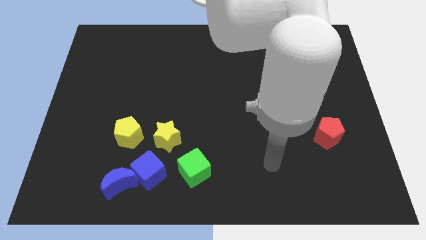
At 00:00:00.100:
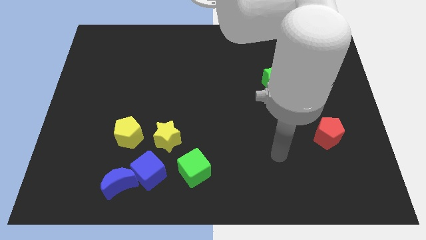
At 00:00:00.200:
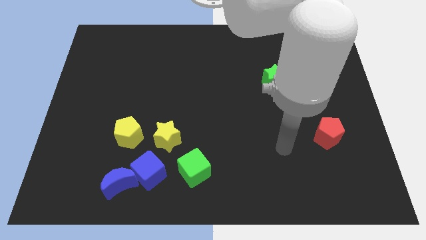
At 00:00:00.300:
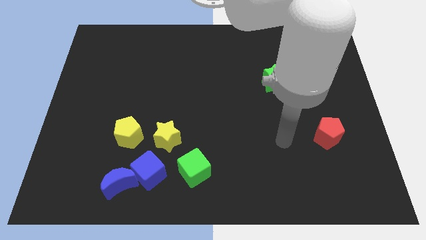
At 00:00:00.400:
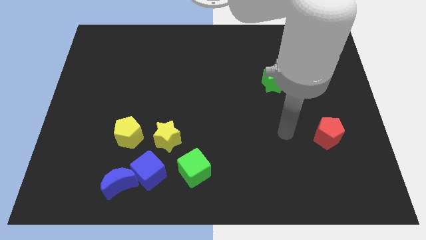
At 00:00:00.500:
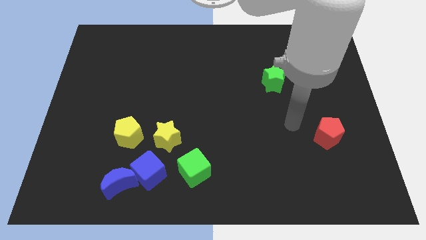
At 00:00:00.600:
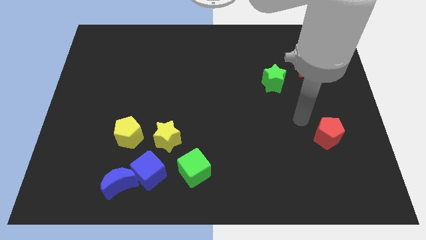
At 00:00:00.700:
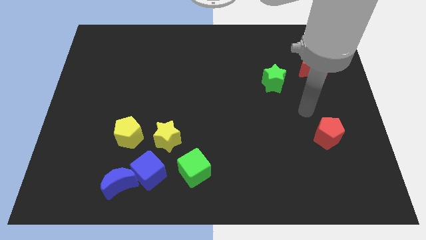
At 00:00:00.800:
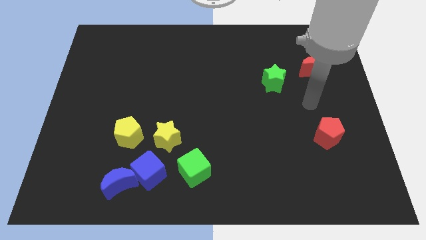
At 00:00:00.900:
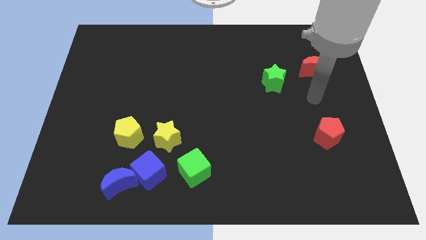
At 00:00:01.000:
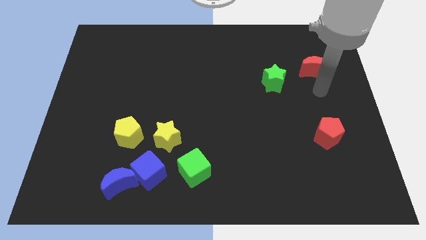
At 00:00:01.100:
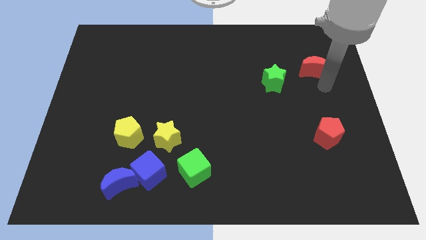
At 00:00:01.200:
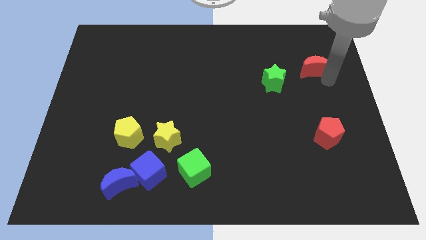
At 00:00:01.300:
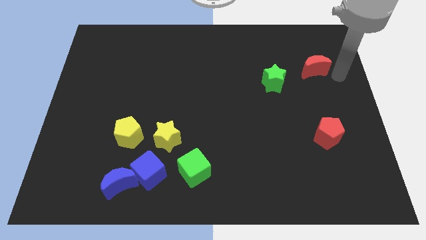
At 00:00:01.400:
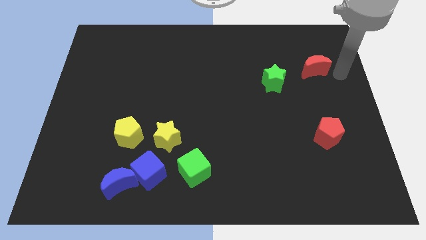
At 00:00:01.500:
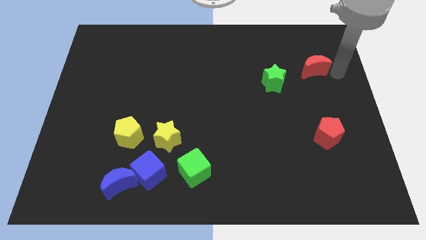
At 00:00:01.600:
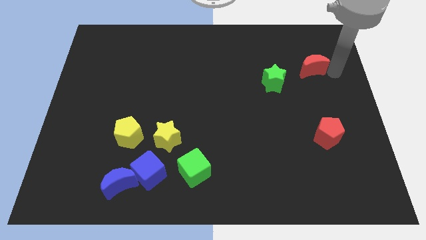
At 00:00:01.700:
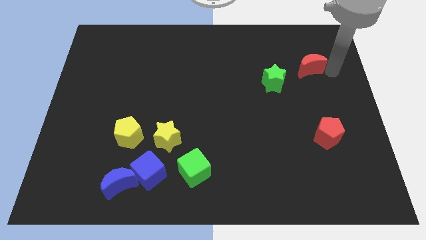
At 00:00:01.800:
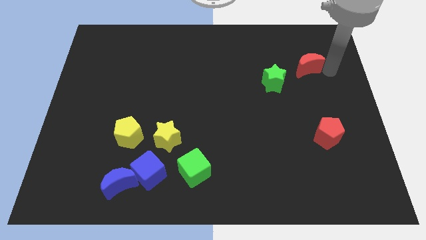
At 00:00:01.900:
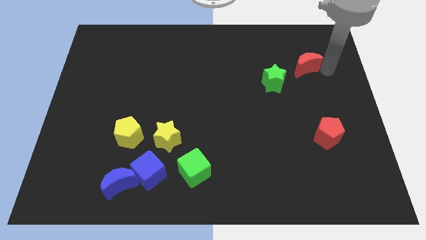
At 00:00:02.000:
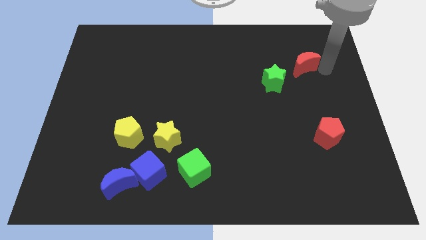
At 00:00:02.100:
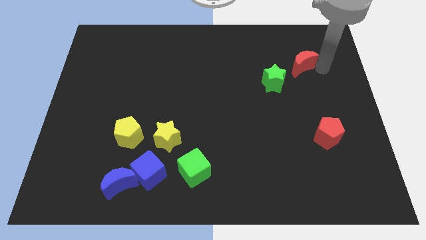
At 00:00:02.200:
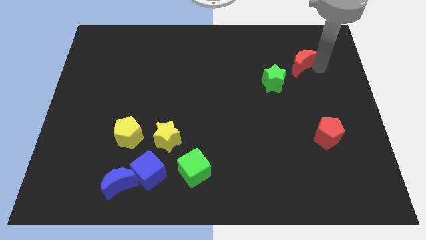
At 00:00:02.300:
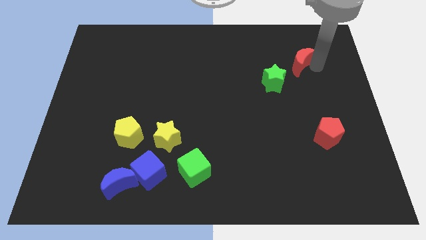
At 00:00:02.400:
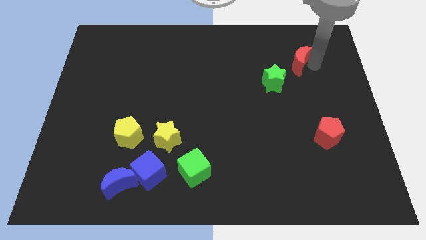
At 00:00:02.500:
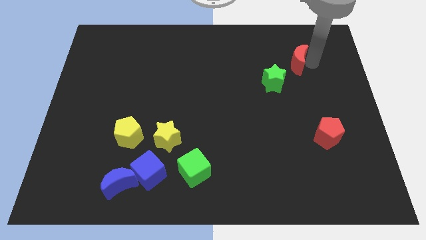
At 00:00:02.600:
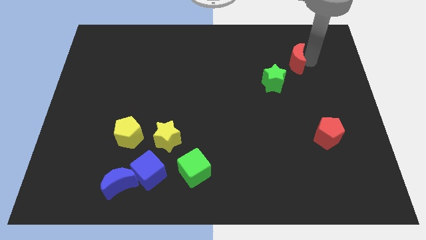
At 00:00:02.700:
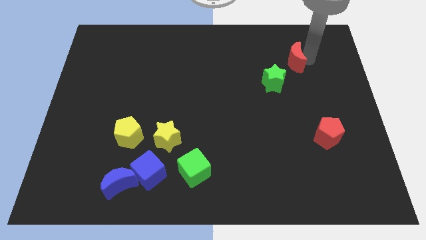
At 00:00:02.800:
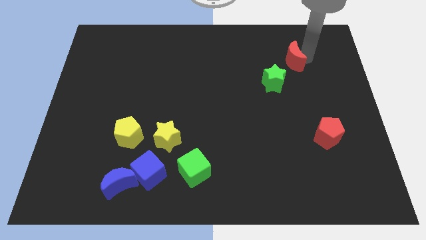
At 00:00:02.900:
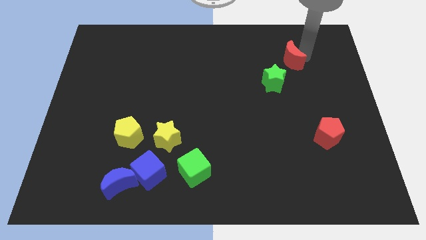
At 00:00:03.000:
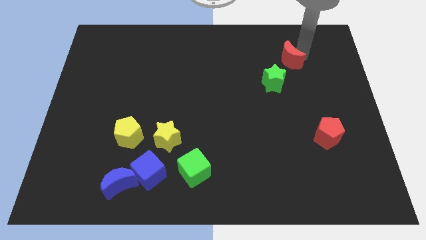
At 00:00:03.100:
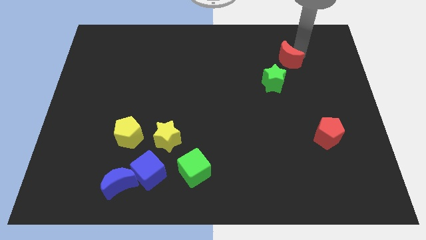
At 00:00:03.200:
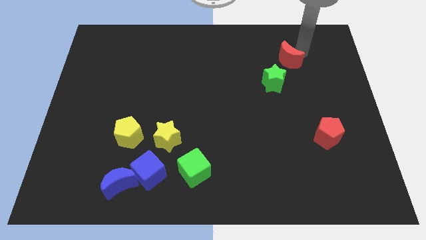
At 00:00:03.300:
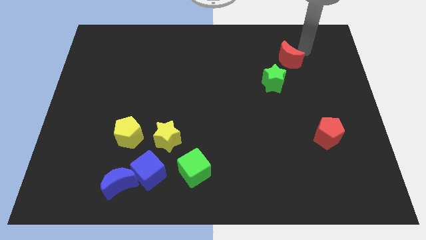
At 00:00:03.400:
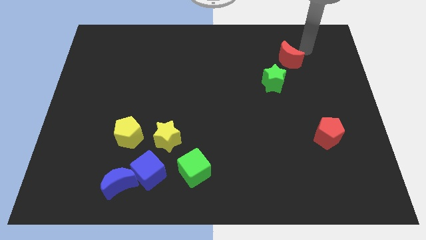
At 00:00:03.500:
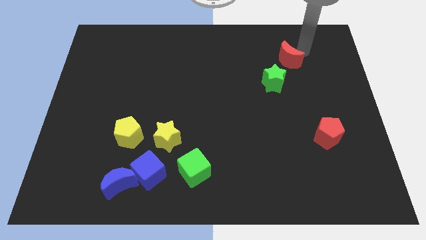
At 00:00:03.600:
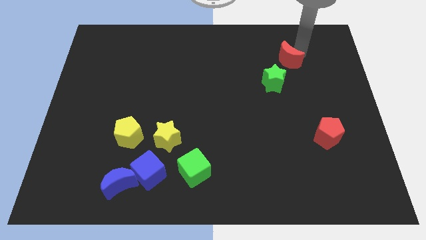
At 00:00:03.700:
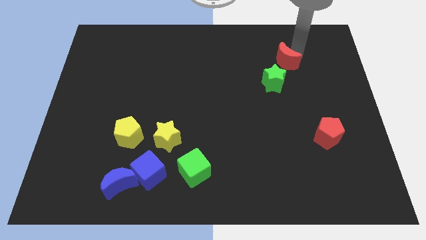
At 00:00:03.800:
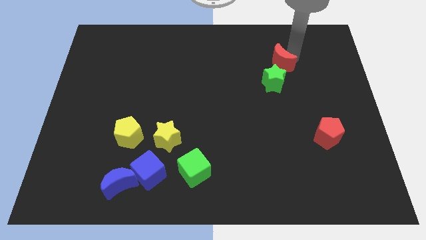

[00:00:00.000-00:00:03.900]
slide the red moon to the left a little

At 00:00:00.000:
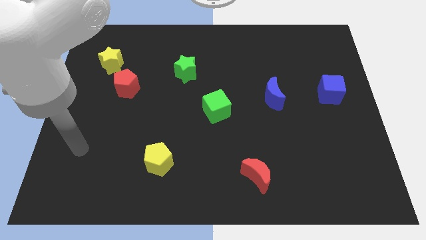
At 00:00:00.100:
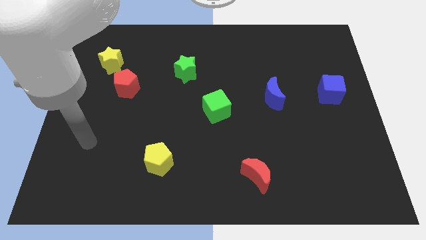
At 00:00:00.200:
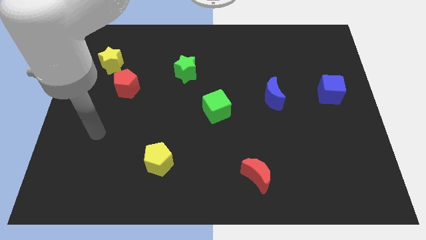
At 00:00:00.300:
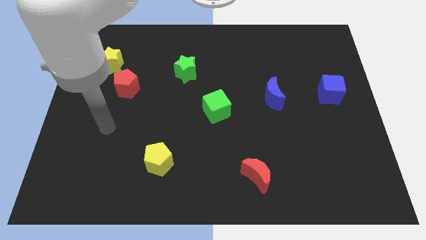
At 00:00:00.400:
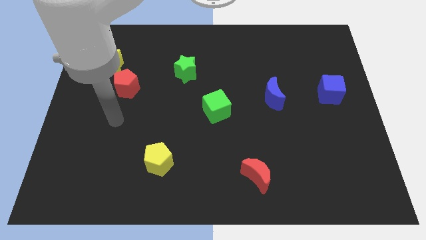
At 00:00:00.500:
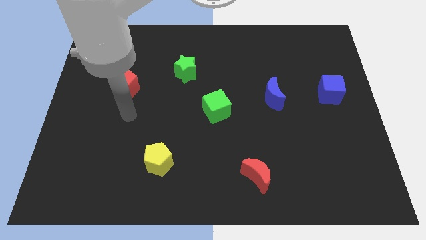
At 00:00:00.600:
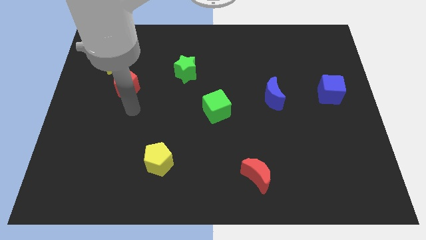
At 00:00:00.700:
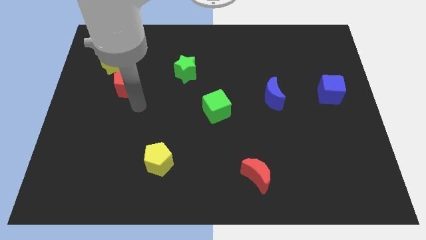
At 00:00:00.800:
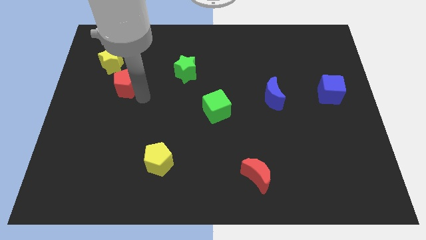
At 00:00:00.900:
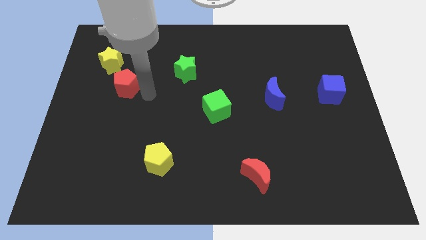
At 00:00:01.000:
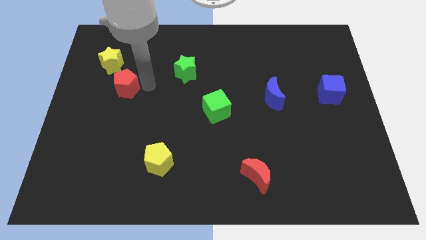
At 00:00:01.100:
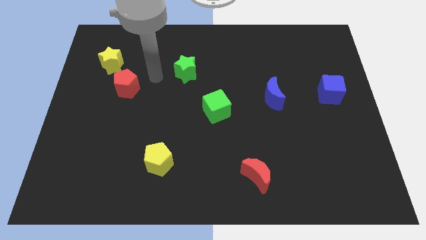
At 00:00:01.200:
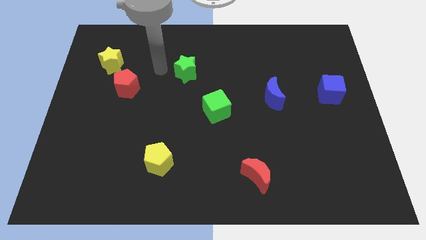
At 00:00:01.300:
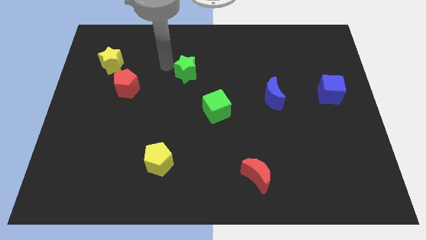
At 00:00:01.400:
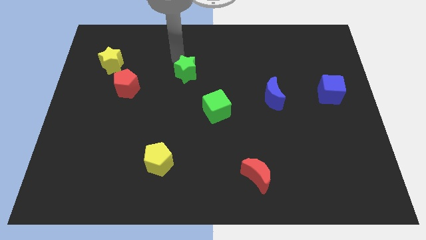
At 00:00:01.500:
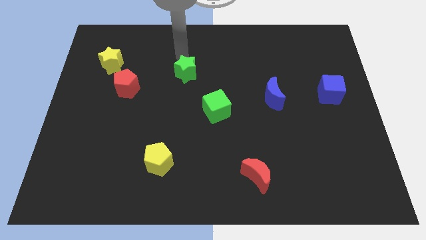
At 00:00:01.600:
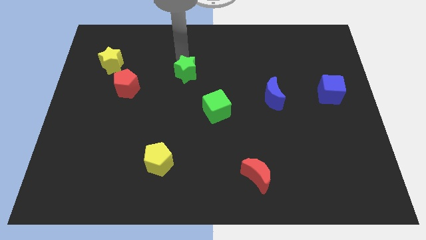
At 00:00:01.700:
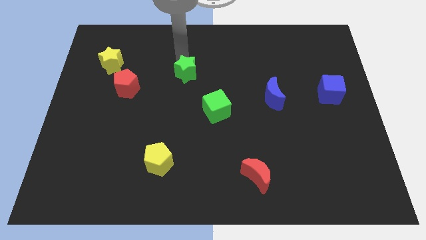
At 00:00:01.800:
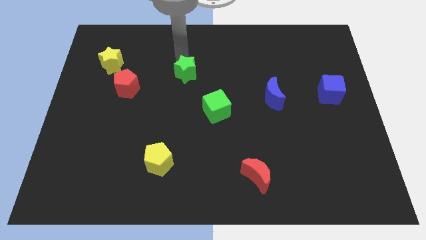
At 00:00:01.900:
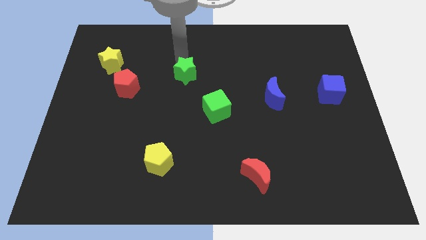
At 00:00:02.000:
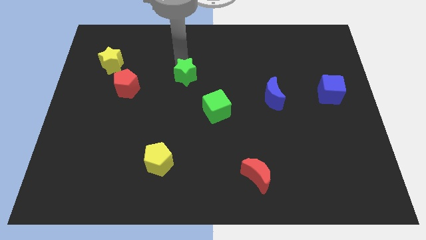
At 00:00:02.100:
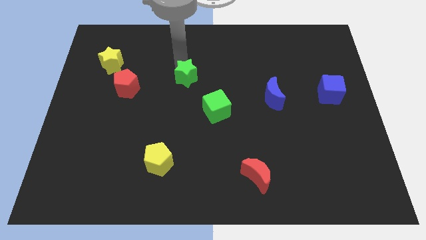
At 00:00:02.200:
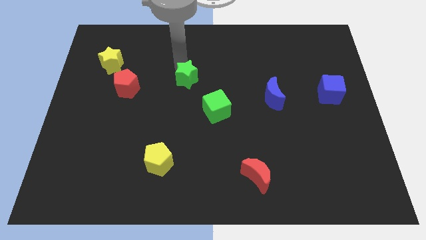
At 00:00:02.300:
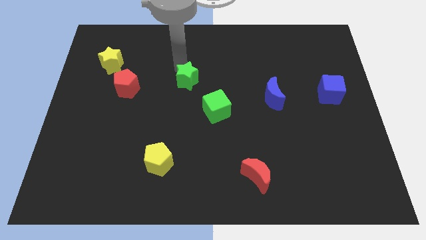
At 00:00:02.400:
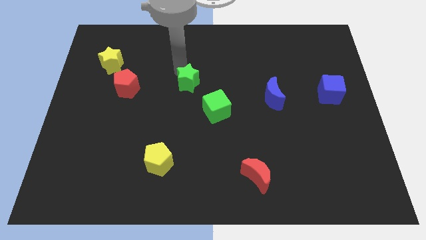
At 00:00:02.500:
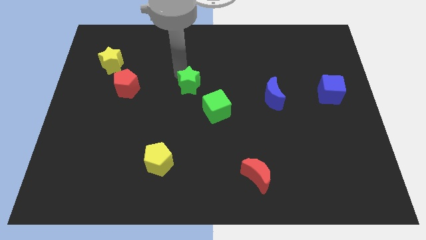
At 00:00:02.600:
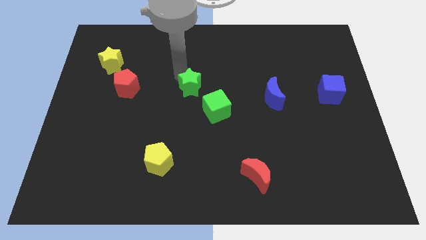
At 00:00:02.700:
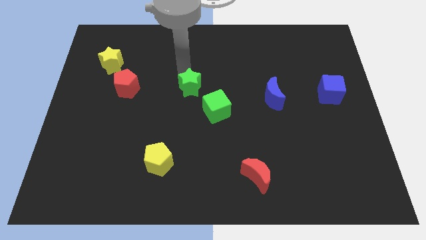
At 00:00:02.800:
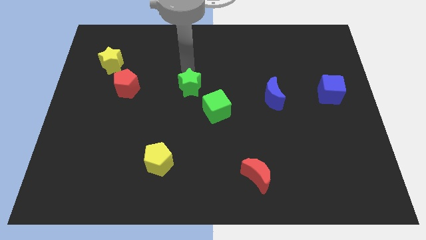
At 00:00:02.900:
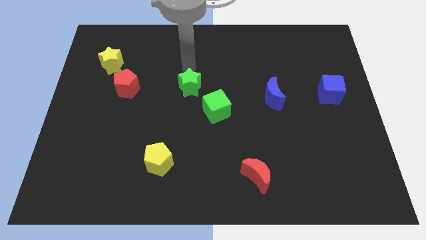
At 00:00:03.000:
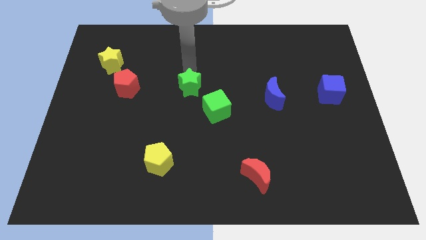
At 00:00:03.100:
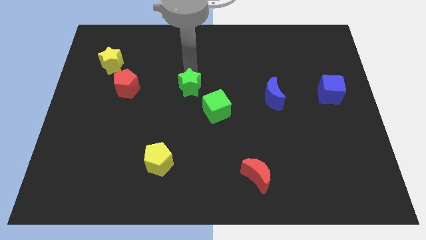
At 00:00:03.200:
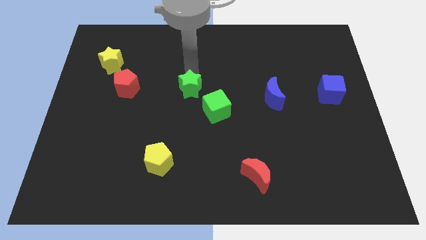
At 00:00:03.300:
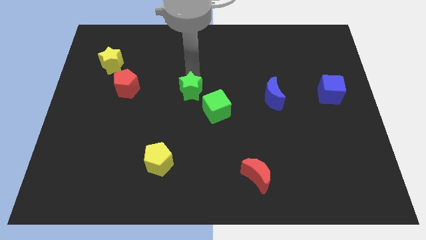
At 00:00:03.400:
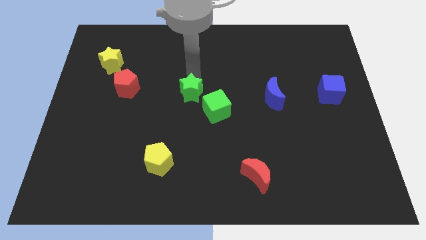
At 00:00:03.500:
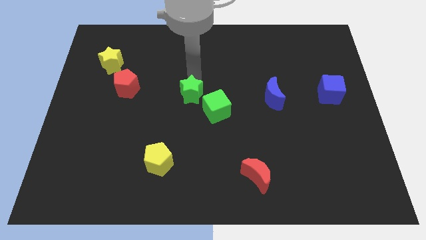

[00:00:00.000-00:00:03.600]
move the green star a little bit downwards

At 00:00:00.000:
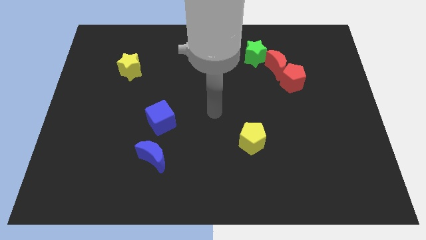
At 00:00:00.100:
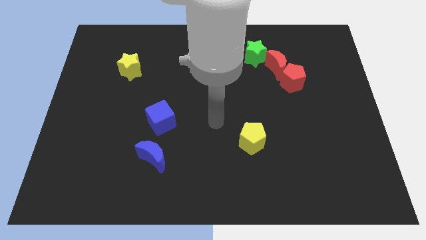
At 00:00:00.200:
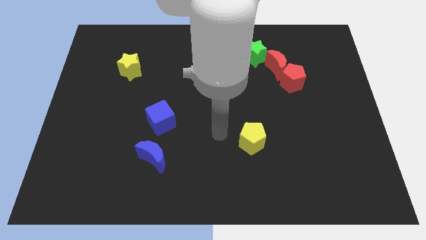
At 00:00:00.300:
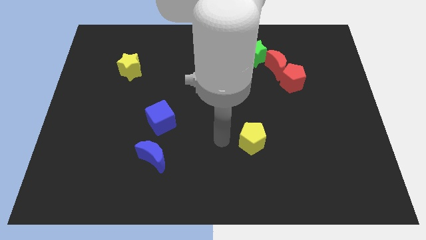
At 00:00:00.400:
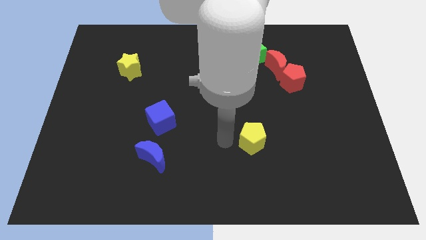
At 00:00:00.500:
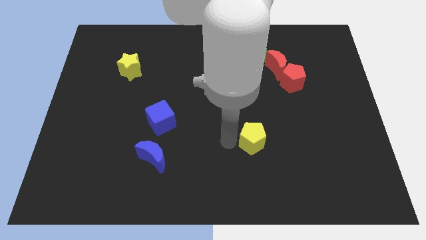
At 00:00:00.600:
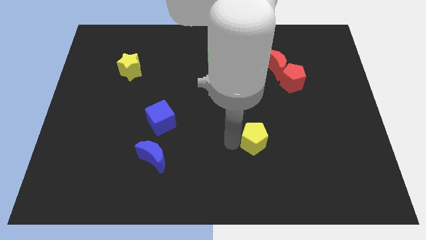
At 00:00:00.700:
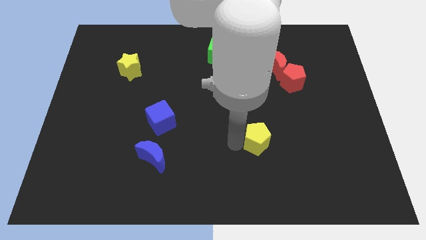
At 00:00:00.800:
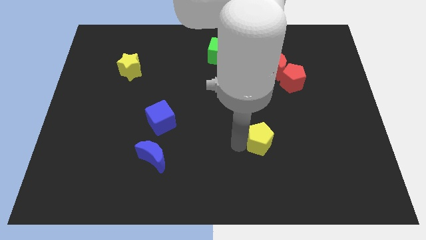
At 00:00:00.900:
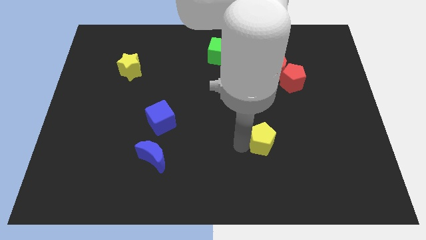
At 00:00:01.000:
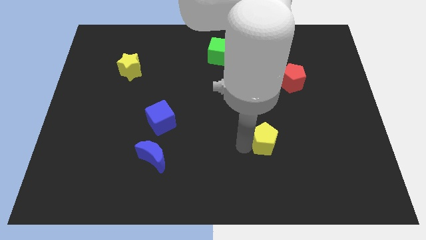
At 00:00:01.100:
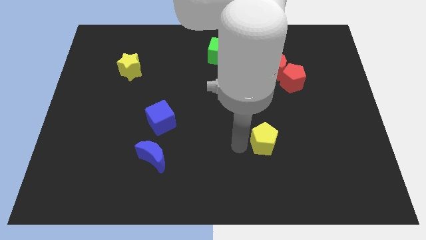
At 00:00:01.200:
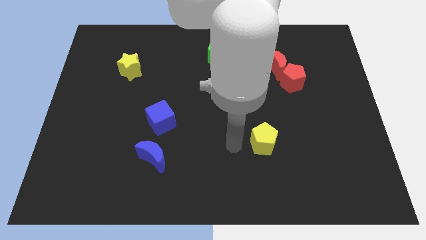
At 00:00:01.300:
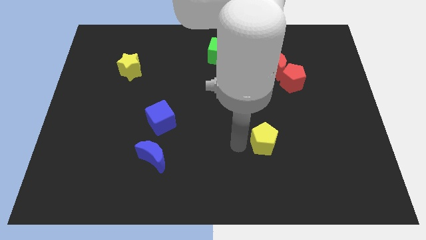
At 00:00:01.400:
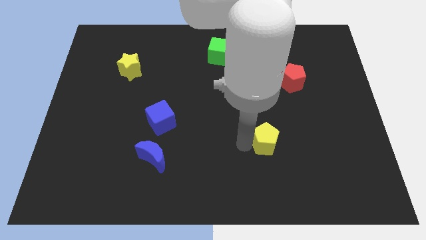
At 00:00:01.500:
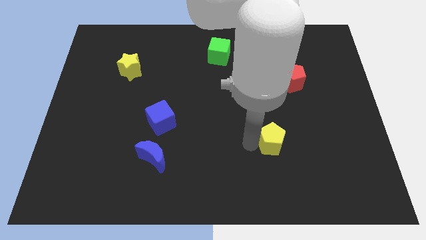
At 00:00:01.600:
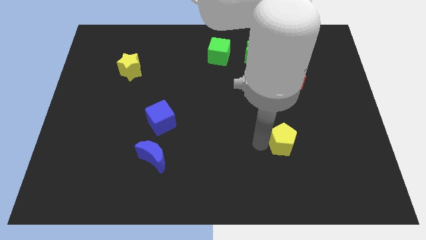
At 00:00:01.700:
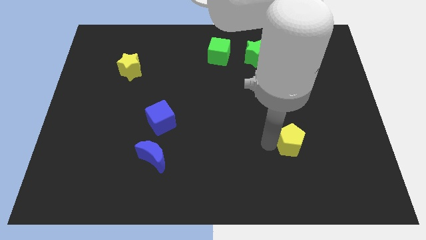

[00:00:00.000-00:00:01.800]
move the yellow pentagon right a little
